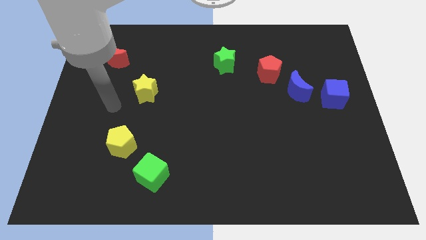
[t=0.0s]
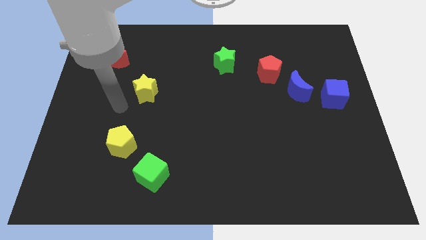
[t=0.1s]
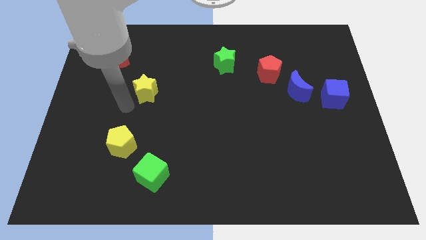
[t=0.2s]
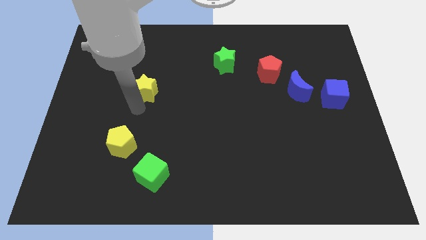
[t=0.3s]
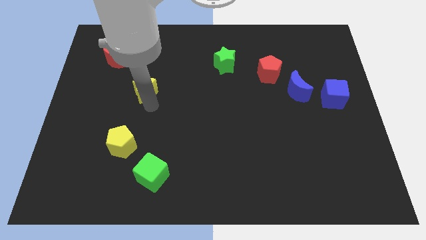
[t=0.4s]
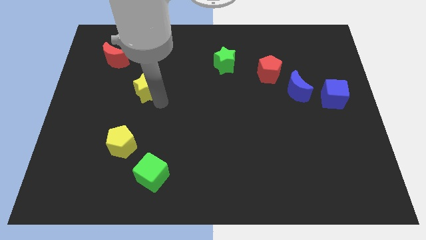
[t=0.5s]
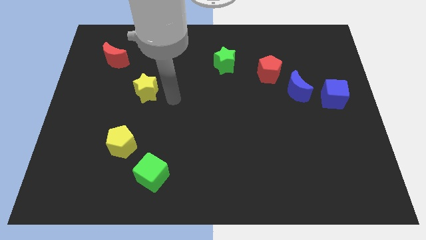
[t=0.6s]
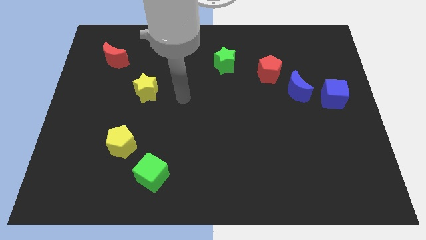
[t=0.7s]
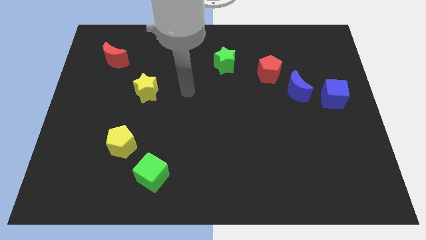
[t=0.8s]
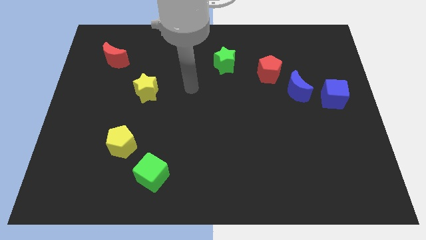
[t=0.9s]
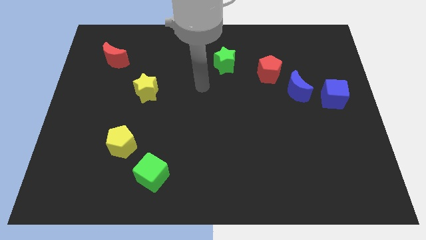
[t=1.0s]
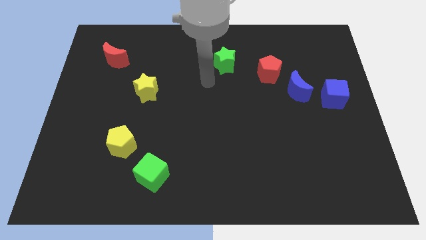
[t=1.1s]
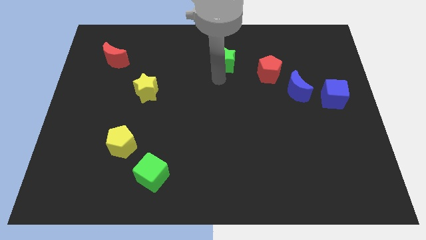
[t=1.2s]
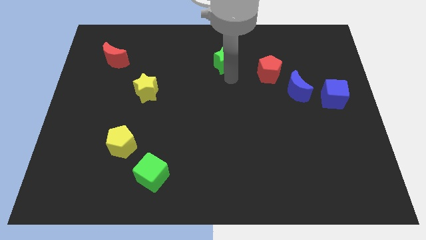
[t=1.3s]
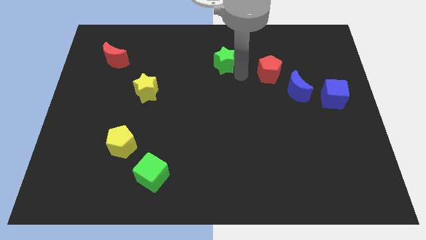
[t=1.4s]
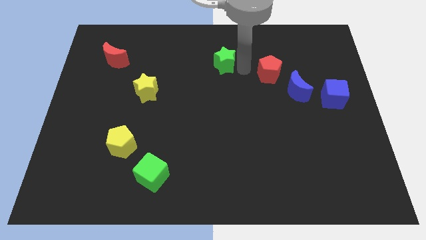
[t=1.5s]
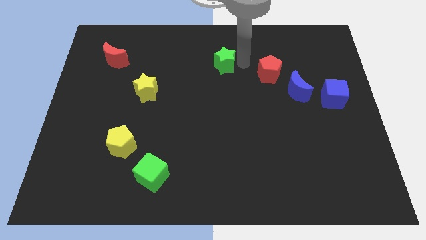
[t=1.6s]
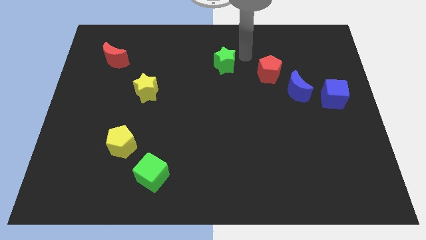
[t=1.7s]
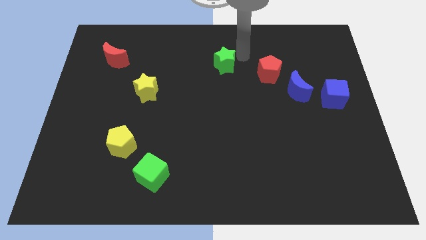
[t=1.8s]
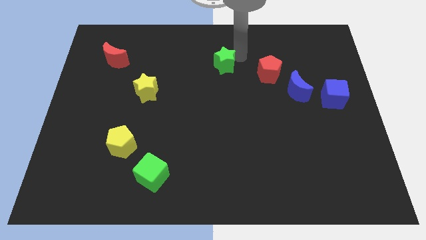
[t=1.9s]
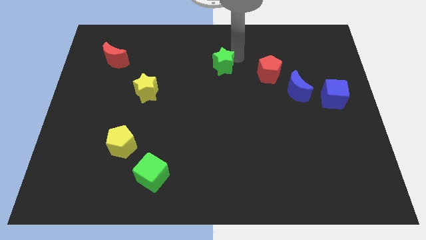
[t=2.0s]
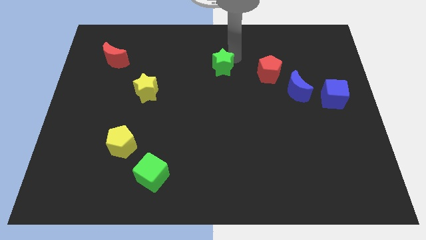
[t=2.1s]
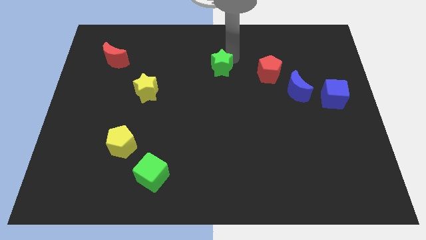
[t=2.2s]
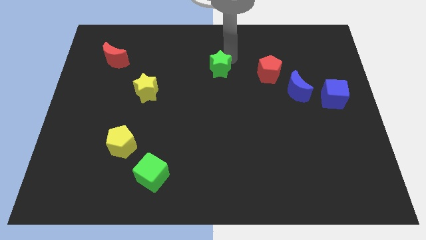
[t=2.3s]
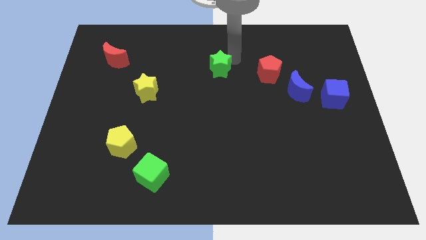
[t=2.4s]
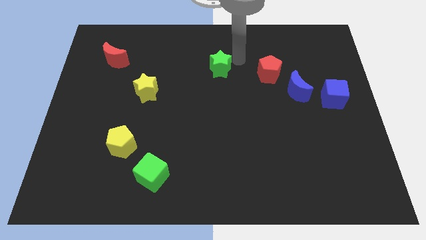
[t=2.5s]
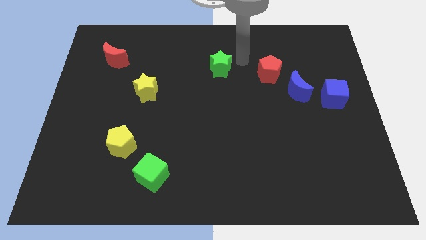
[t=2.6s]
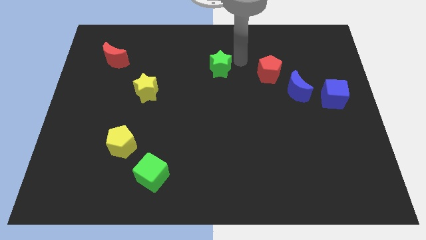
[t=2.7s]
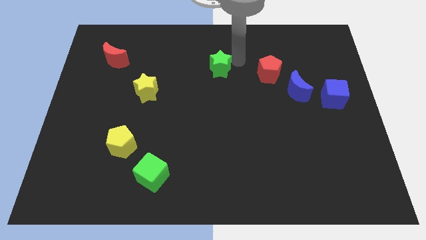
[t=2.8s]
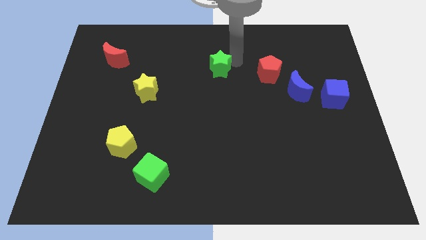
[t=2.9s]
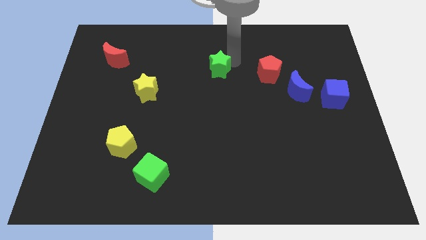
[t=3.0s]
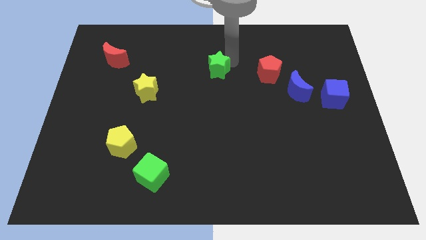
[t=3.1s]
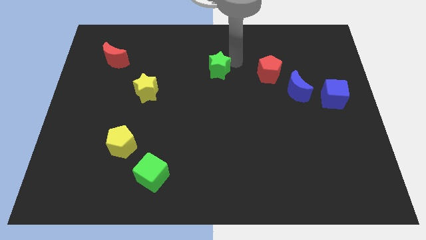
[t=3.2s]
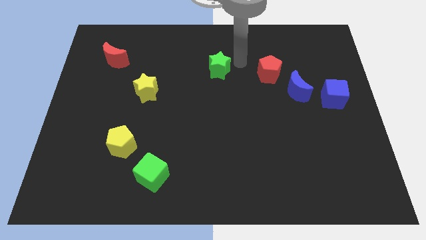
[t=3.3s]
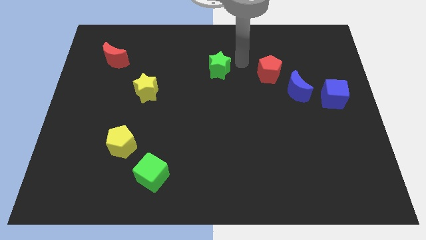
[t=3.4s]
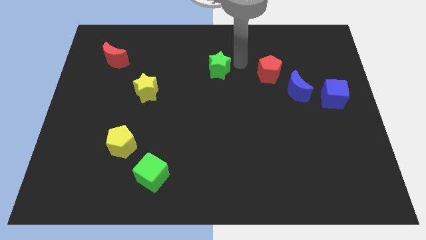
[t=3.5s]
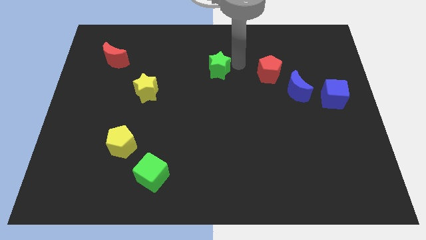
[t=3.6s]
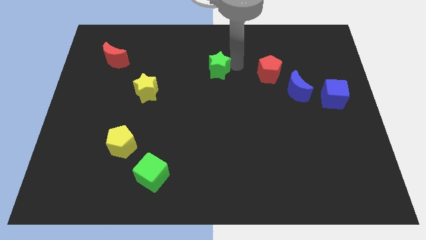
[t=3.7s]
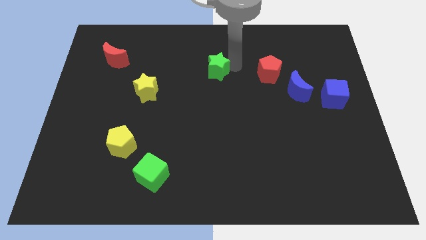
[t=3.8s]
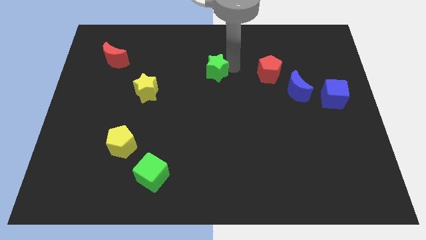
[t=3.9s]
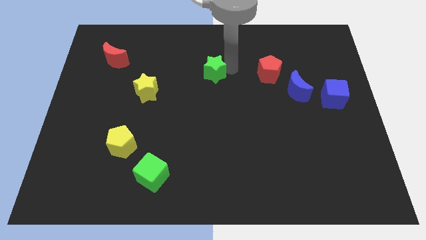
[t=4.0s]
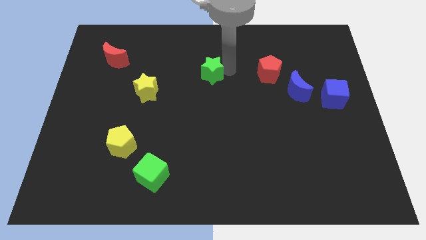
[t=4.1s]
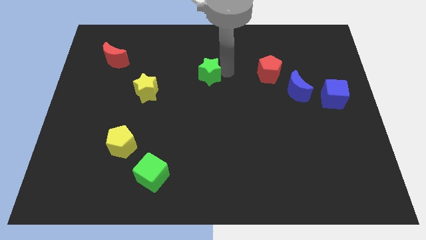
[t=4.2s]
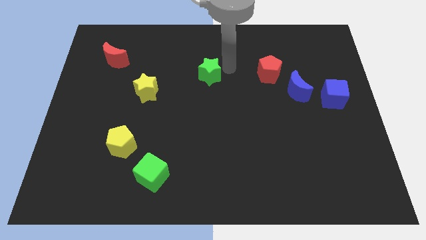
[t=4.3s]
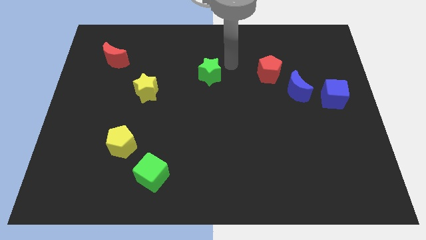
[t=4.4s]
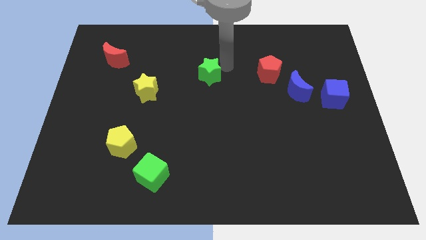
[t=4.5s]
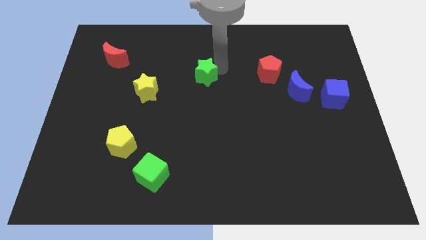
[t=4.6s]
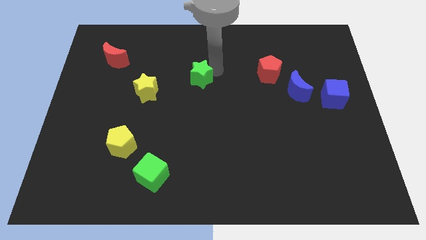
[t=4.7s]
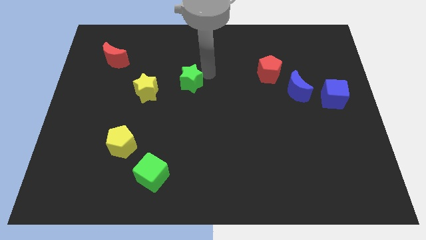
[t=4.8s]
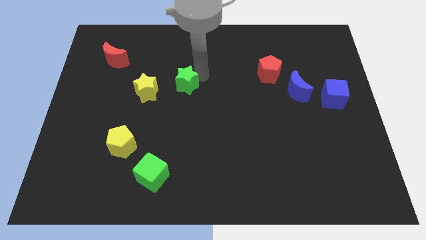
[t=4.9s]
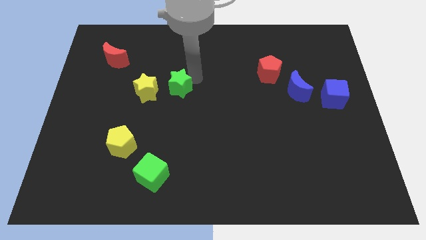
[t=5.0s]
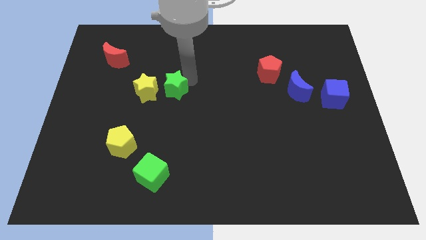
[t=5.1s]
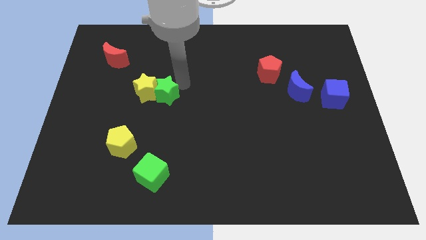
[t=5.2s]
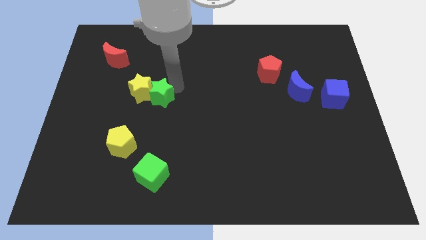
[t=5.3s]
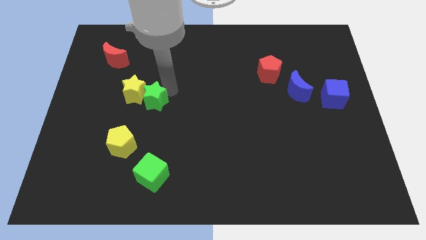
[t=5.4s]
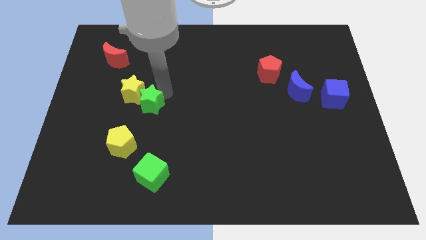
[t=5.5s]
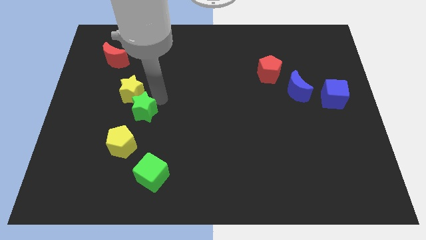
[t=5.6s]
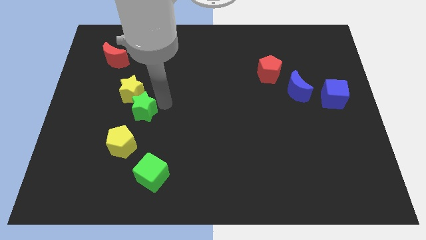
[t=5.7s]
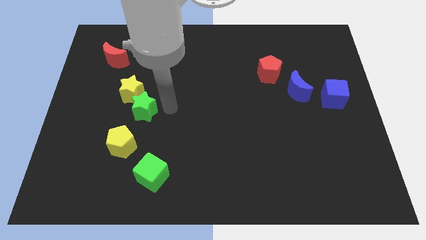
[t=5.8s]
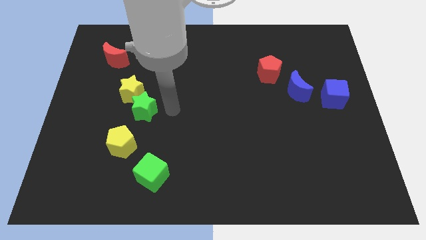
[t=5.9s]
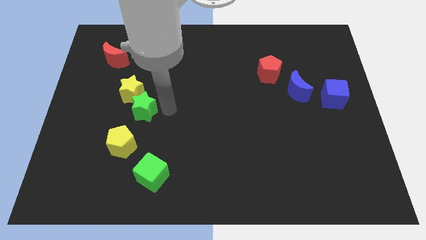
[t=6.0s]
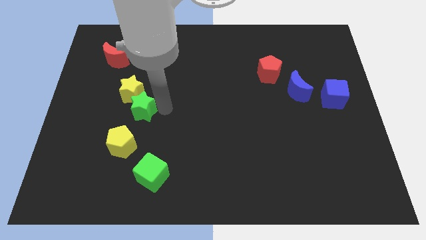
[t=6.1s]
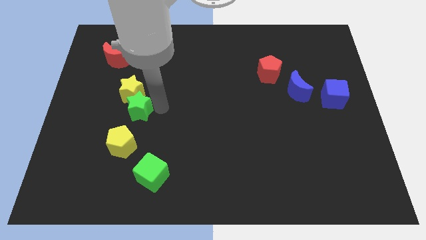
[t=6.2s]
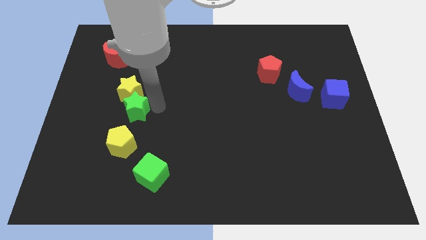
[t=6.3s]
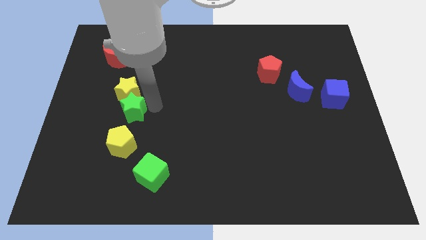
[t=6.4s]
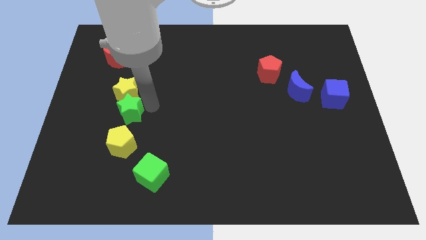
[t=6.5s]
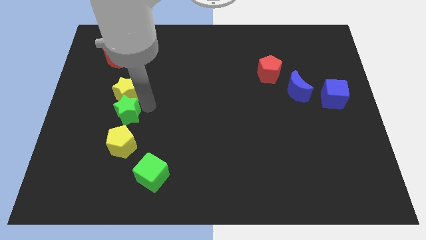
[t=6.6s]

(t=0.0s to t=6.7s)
put the green star diagonally down and to the left of the yellow star

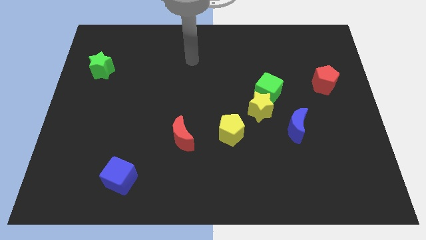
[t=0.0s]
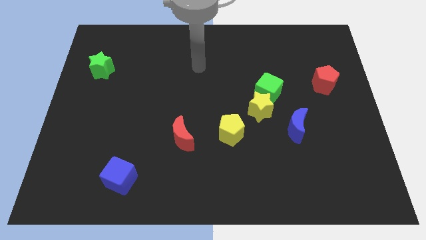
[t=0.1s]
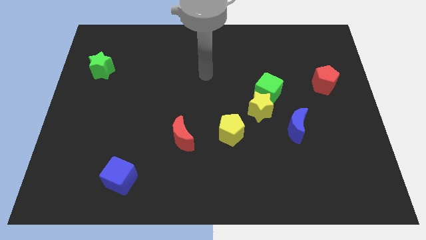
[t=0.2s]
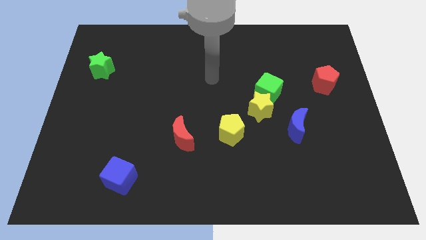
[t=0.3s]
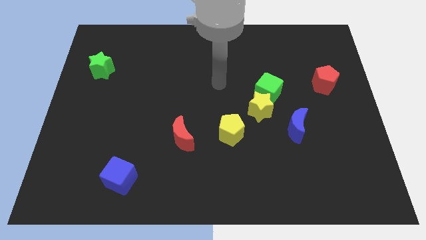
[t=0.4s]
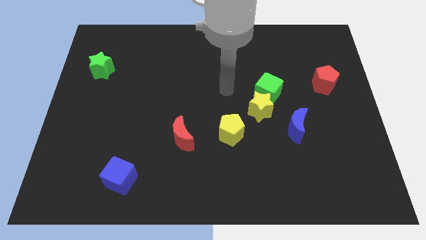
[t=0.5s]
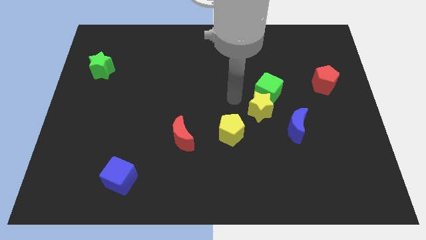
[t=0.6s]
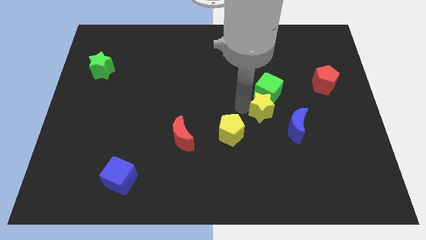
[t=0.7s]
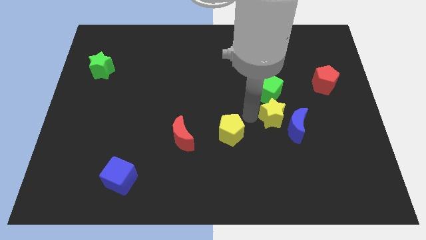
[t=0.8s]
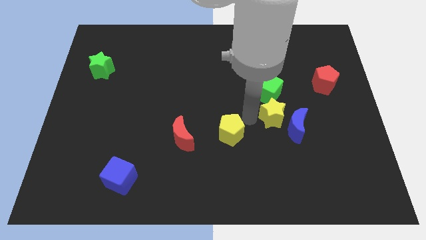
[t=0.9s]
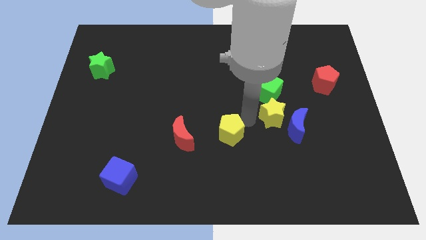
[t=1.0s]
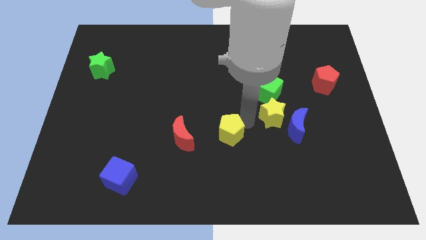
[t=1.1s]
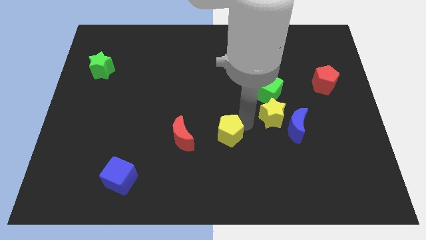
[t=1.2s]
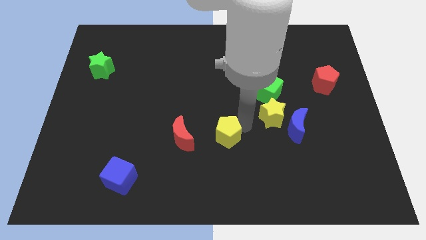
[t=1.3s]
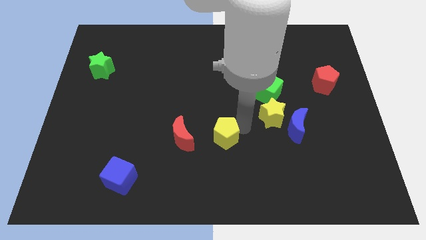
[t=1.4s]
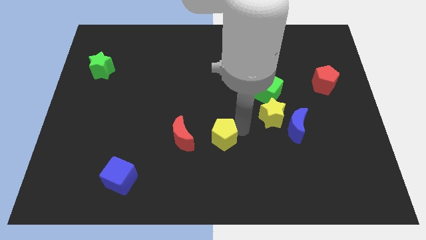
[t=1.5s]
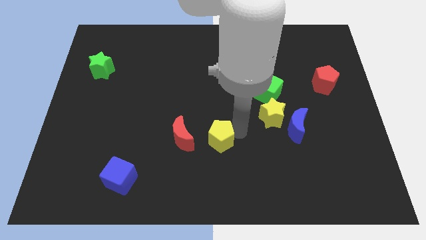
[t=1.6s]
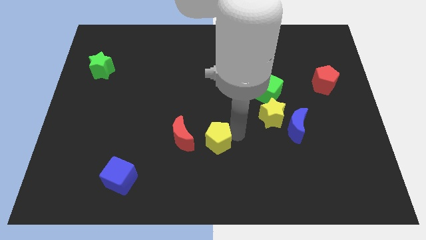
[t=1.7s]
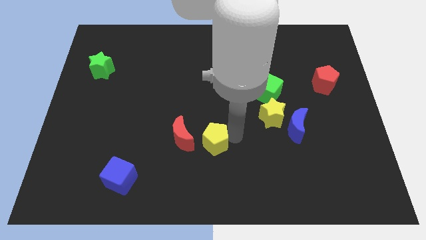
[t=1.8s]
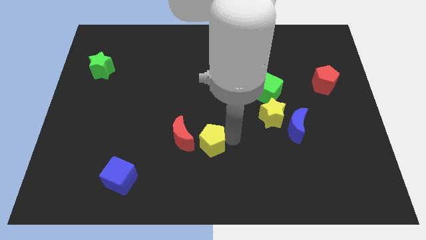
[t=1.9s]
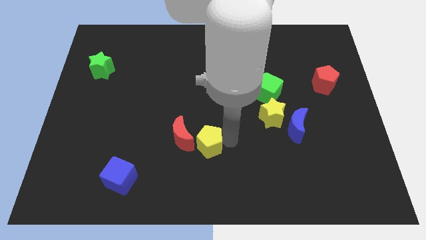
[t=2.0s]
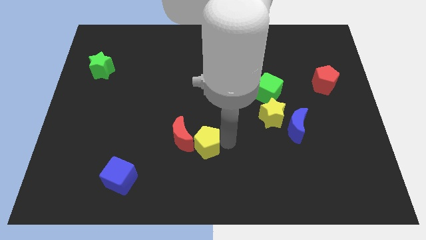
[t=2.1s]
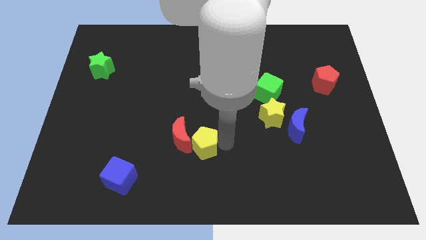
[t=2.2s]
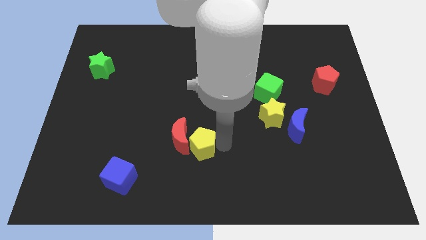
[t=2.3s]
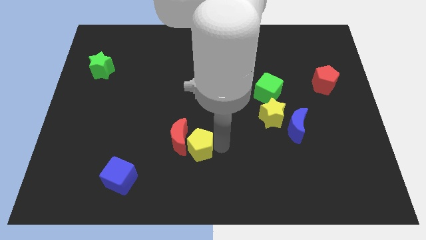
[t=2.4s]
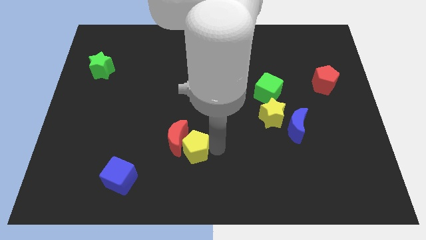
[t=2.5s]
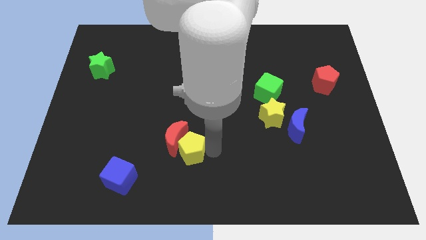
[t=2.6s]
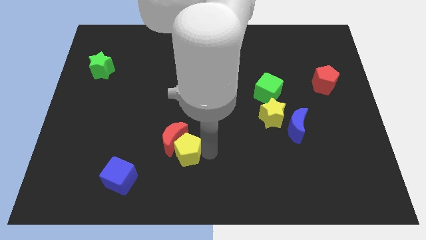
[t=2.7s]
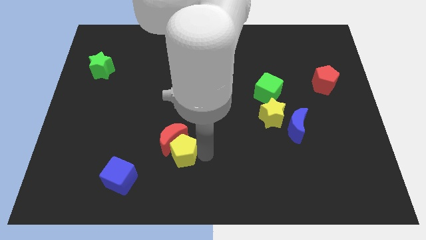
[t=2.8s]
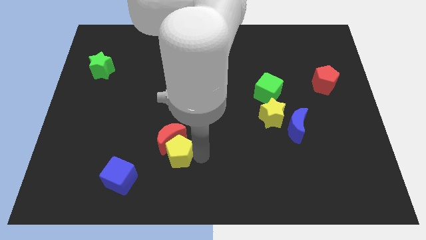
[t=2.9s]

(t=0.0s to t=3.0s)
slide the yellow pentagon to the bottom left side of the red moon
